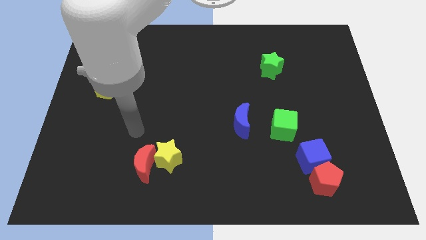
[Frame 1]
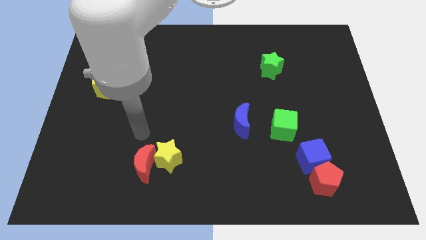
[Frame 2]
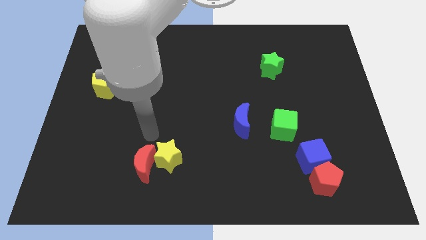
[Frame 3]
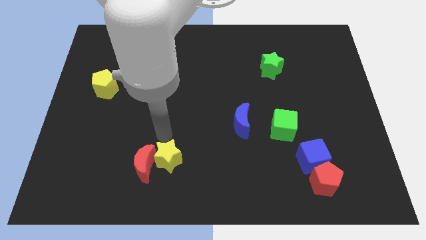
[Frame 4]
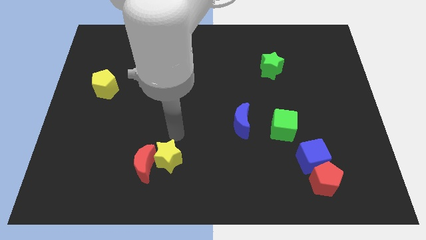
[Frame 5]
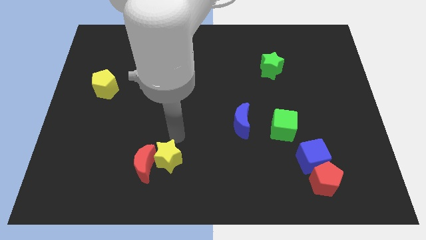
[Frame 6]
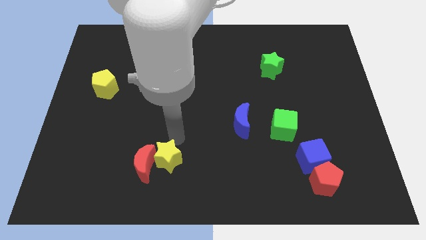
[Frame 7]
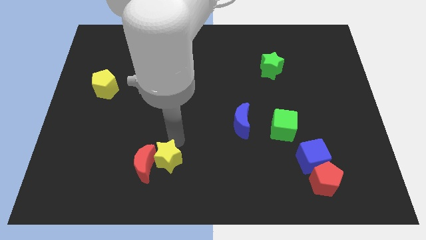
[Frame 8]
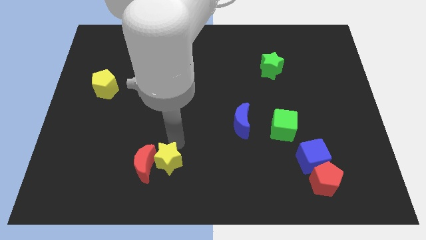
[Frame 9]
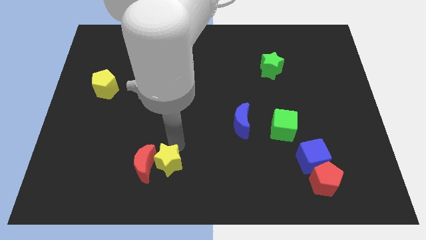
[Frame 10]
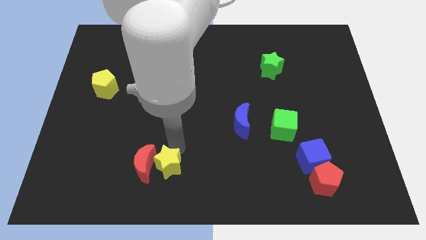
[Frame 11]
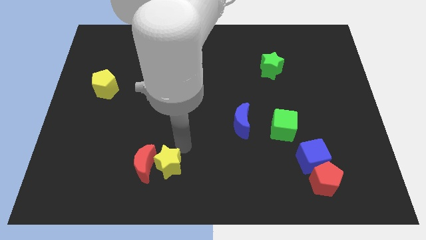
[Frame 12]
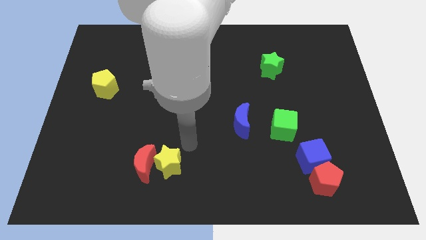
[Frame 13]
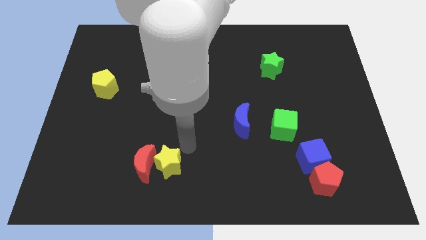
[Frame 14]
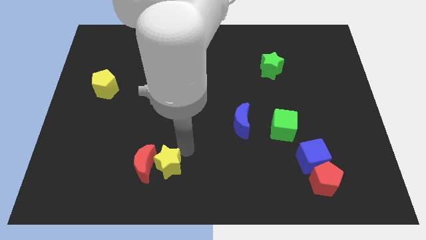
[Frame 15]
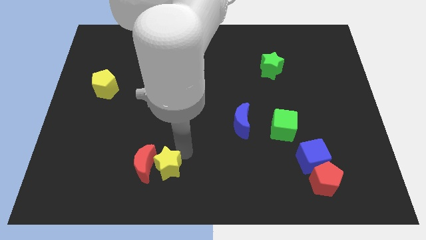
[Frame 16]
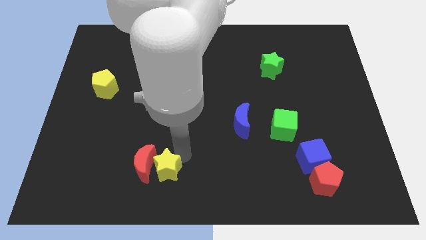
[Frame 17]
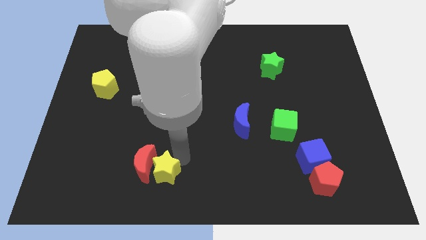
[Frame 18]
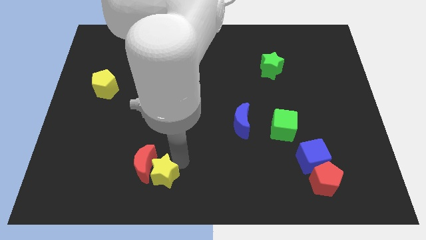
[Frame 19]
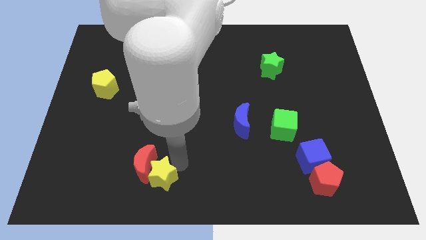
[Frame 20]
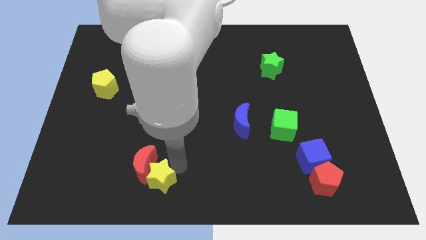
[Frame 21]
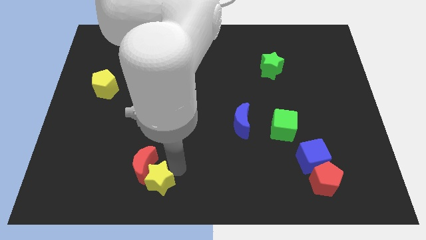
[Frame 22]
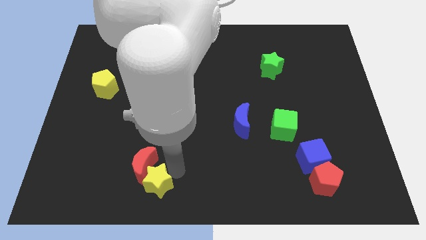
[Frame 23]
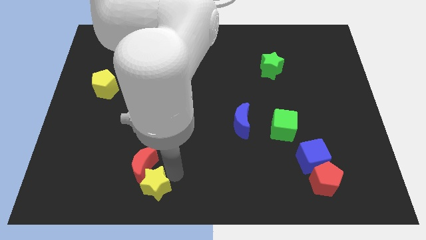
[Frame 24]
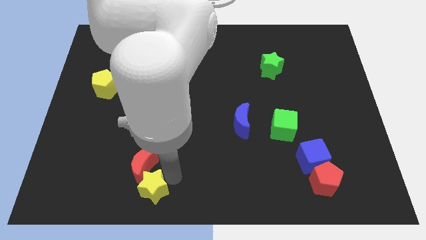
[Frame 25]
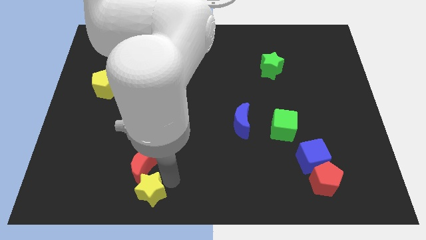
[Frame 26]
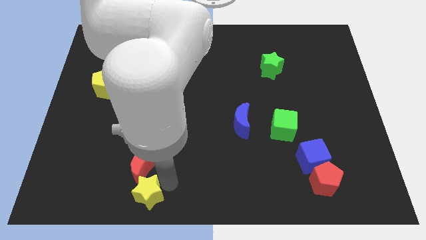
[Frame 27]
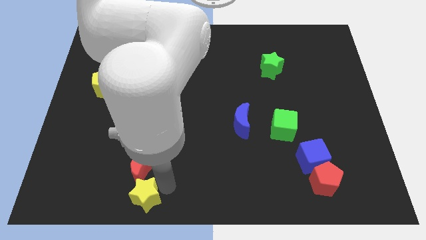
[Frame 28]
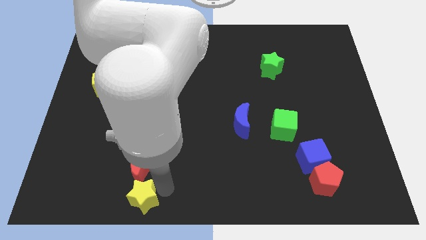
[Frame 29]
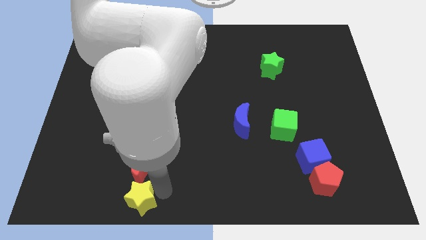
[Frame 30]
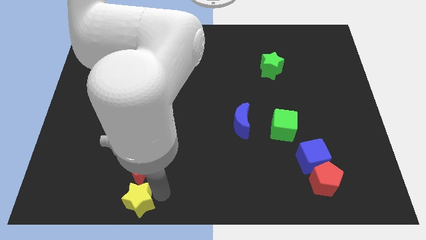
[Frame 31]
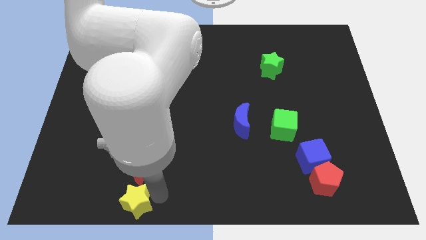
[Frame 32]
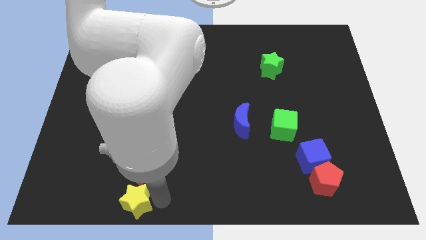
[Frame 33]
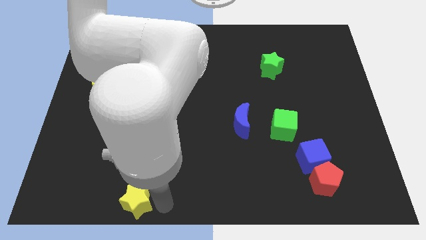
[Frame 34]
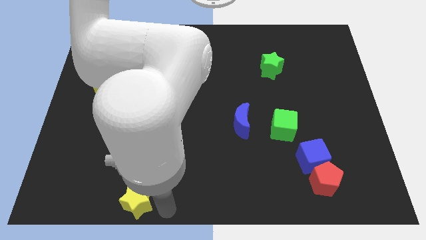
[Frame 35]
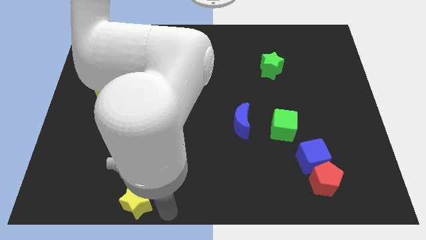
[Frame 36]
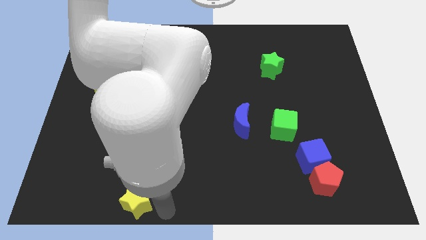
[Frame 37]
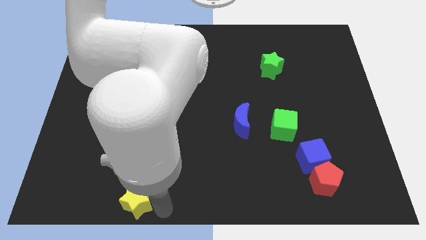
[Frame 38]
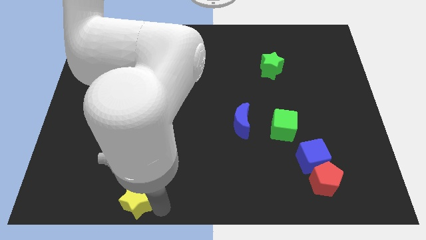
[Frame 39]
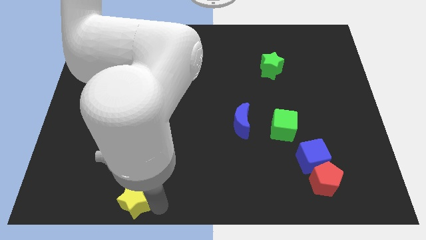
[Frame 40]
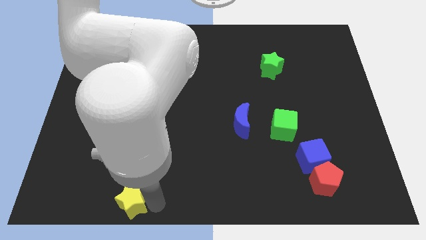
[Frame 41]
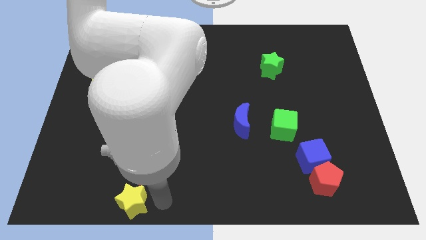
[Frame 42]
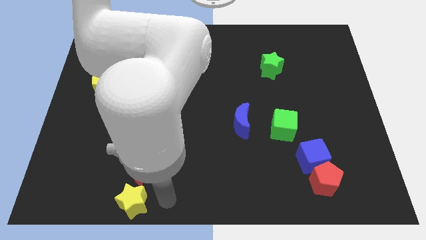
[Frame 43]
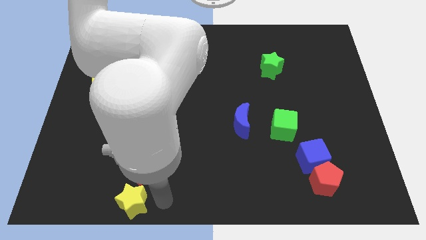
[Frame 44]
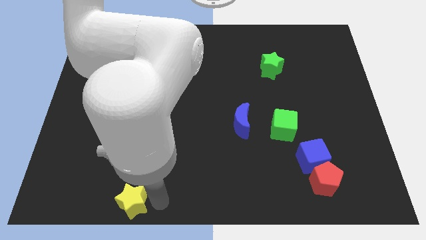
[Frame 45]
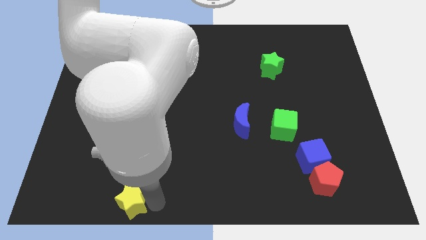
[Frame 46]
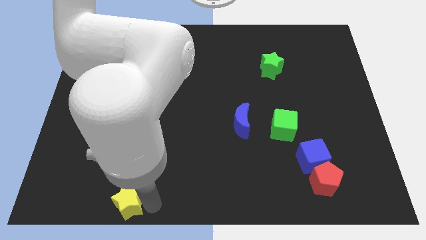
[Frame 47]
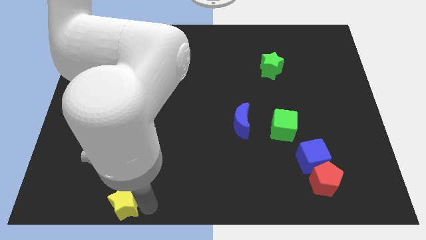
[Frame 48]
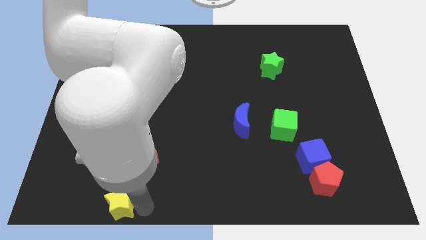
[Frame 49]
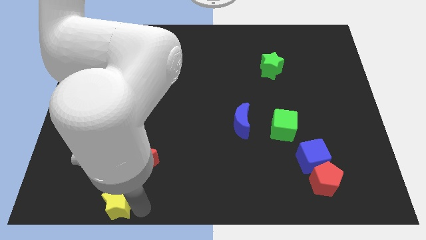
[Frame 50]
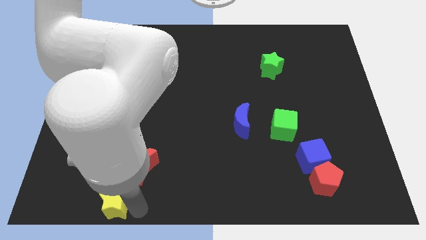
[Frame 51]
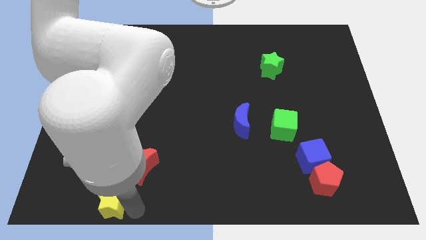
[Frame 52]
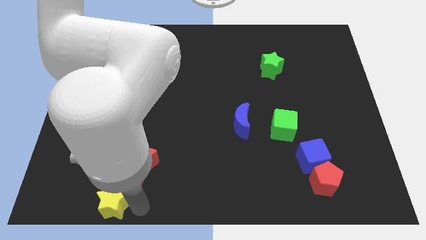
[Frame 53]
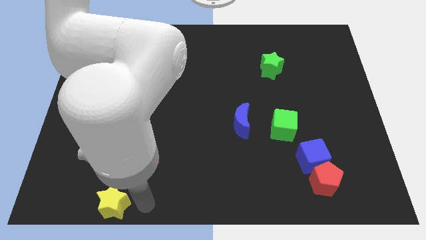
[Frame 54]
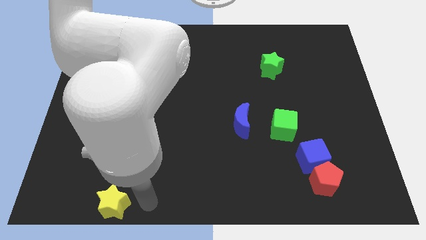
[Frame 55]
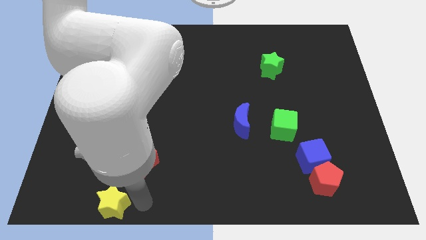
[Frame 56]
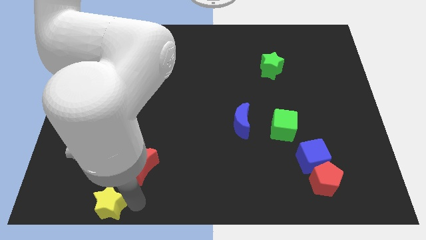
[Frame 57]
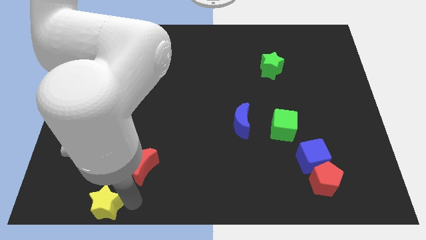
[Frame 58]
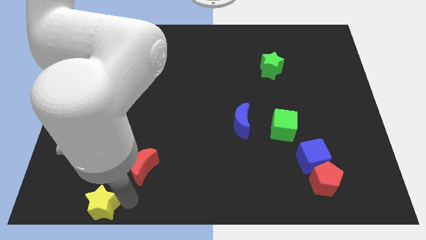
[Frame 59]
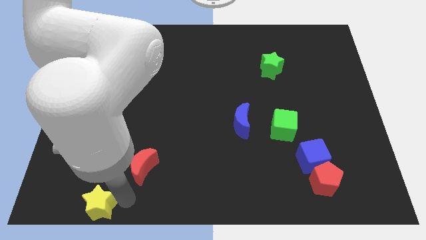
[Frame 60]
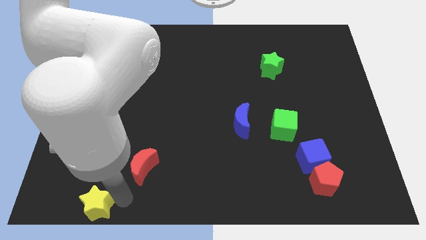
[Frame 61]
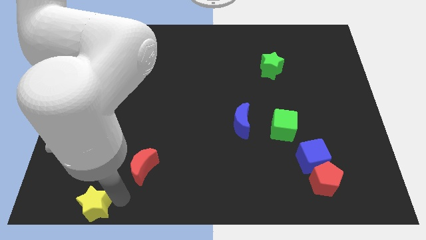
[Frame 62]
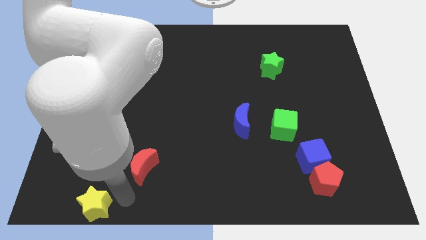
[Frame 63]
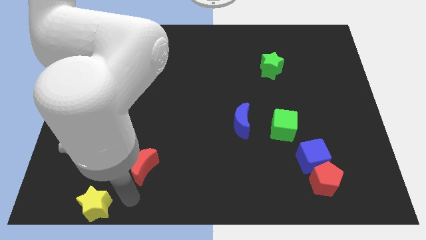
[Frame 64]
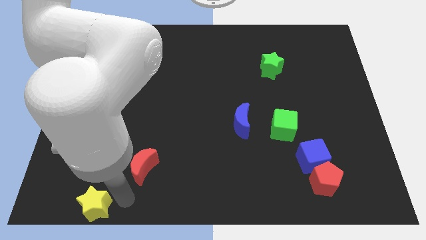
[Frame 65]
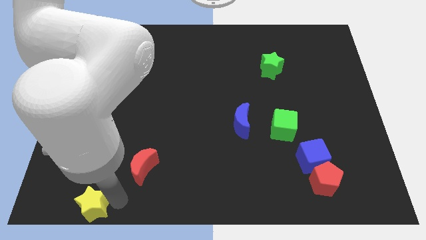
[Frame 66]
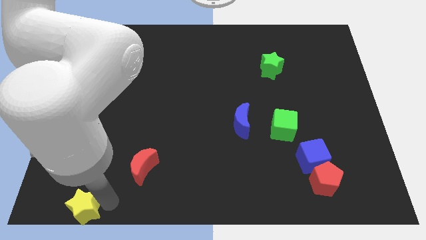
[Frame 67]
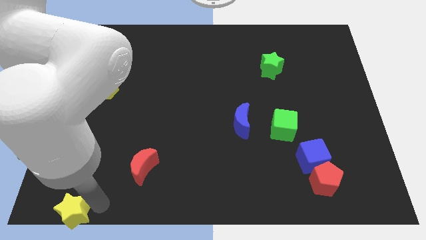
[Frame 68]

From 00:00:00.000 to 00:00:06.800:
put the yellow star to the bottom left corner
